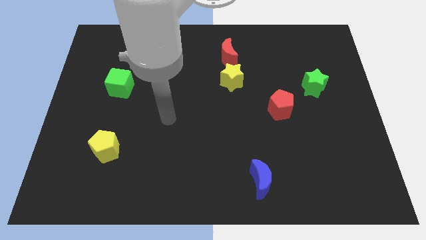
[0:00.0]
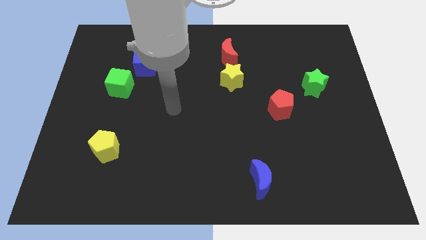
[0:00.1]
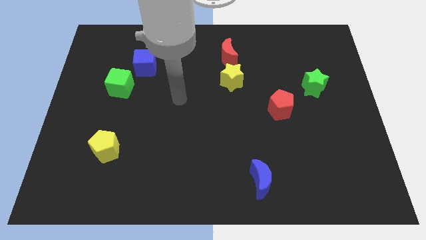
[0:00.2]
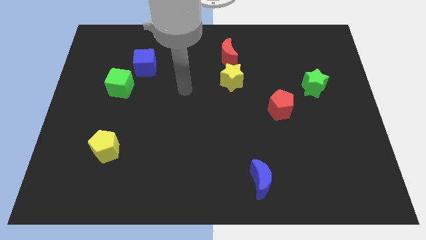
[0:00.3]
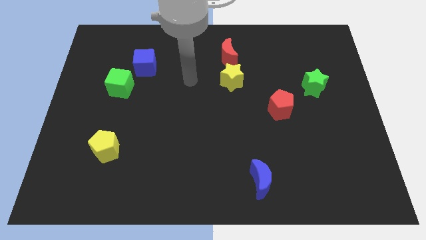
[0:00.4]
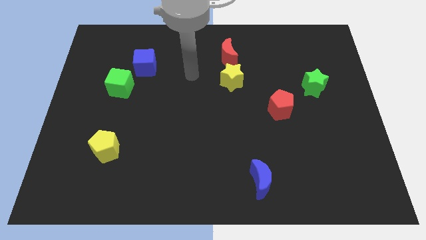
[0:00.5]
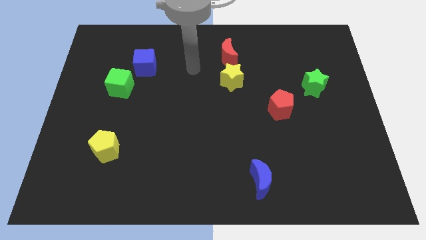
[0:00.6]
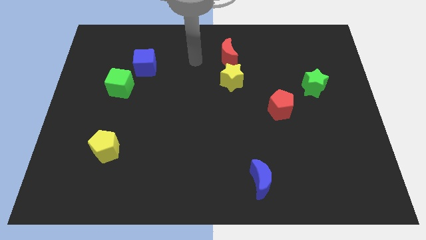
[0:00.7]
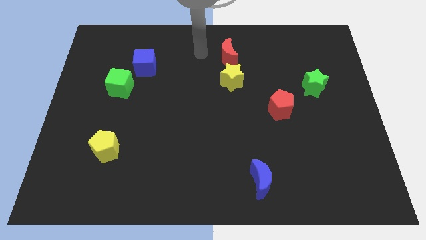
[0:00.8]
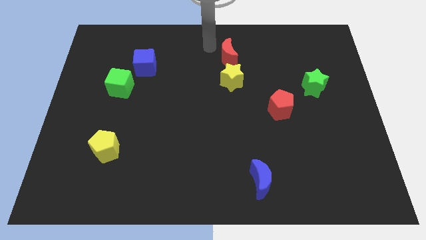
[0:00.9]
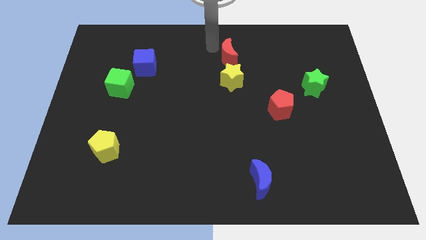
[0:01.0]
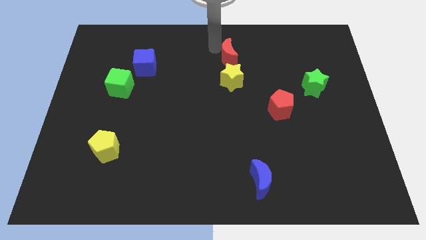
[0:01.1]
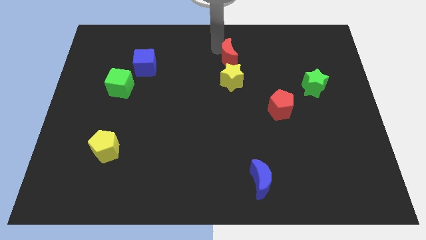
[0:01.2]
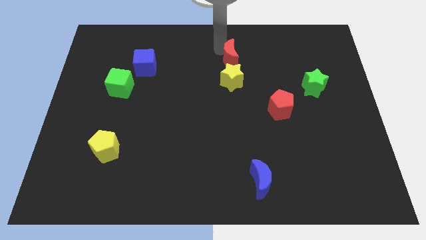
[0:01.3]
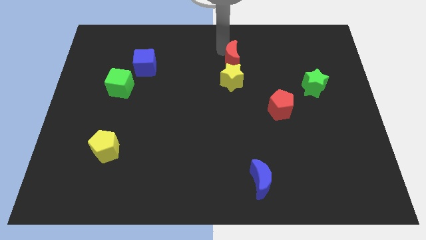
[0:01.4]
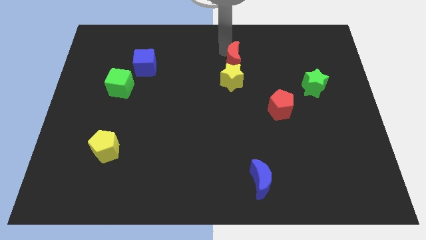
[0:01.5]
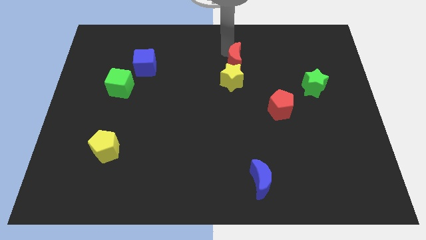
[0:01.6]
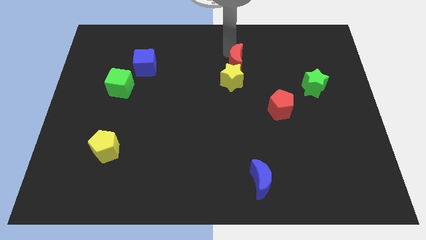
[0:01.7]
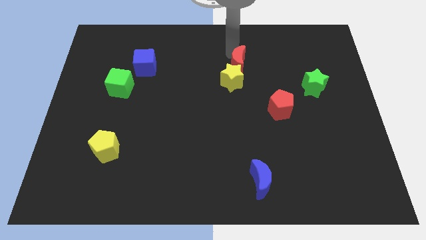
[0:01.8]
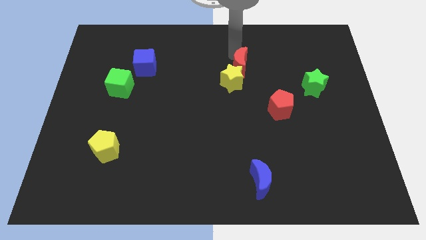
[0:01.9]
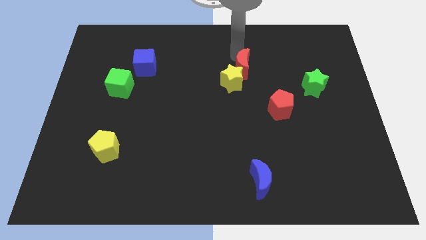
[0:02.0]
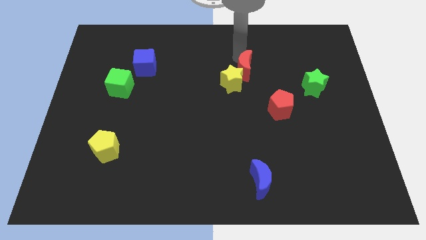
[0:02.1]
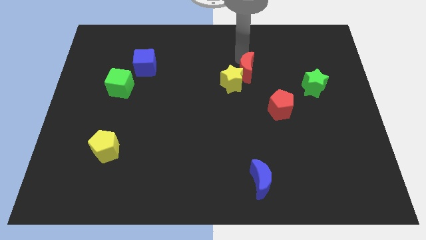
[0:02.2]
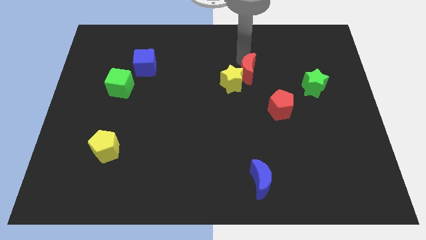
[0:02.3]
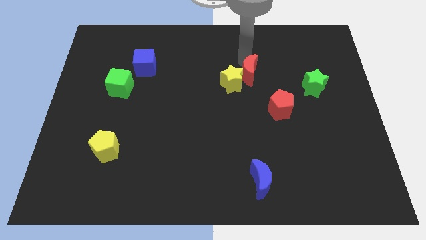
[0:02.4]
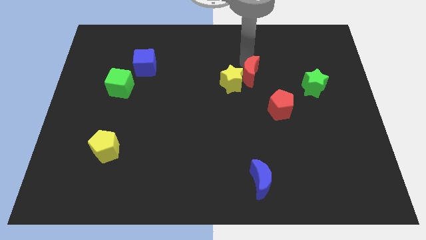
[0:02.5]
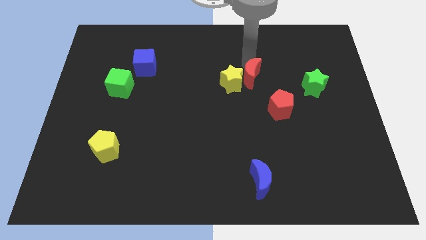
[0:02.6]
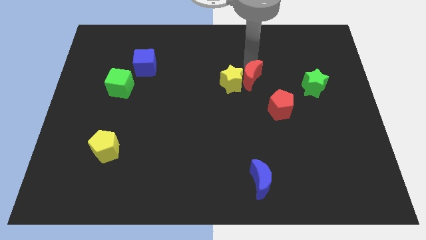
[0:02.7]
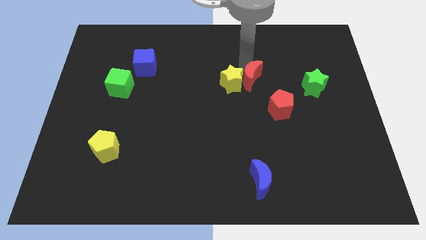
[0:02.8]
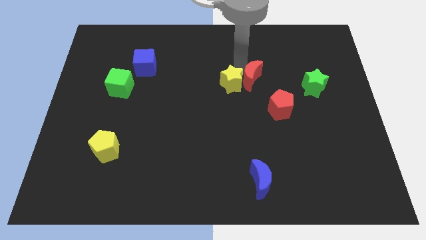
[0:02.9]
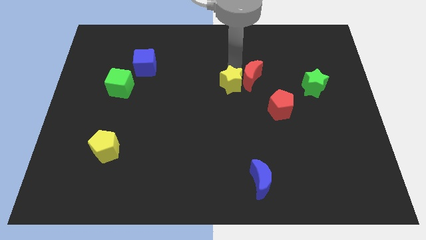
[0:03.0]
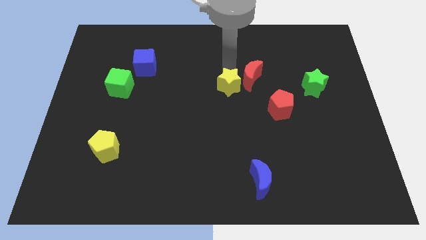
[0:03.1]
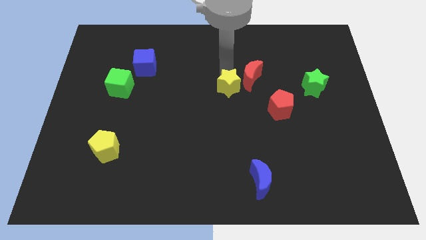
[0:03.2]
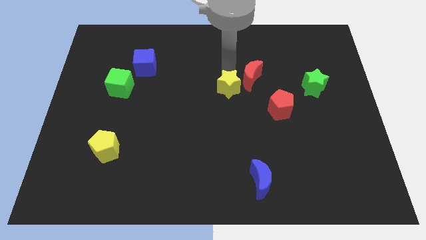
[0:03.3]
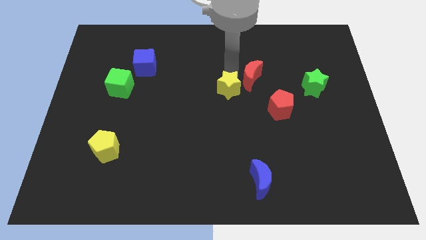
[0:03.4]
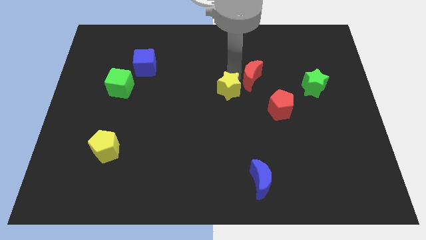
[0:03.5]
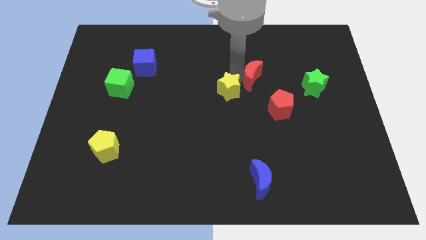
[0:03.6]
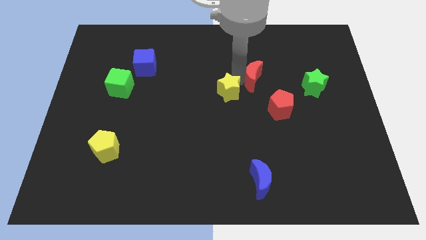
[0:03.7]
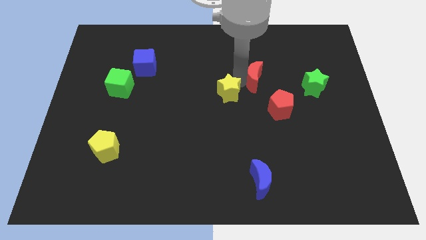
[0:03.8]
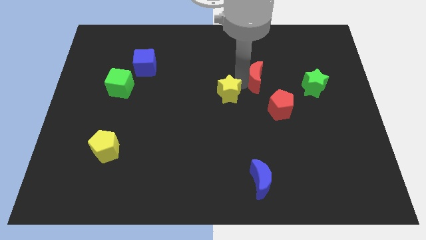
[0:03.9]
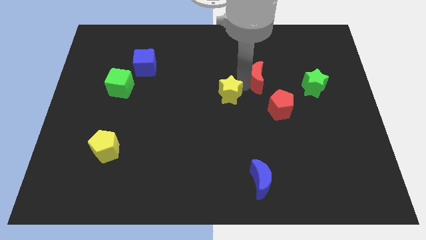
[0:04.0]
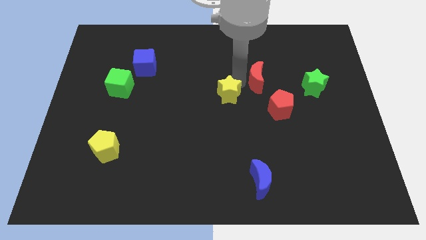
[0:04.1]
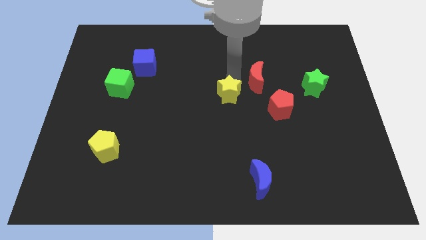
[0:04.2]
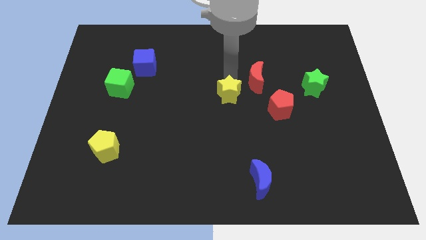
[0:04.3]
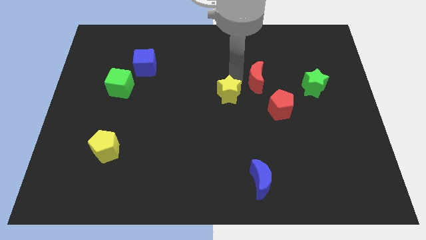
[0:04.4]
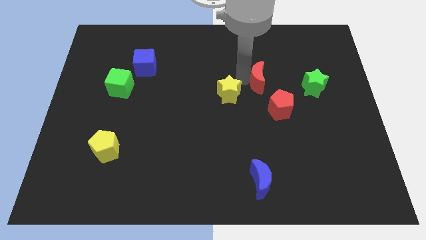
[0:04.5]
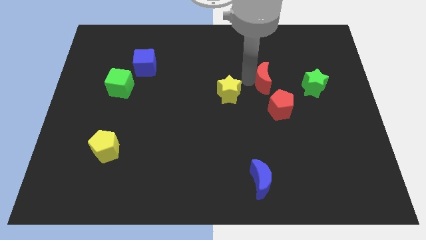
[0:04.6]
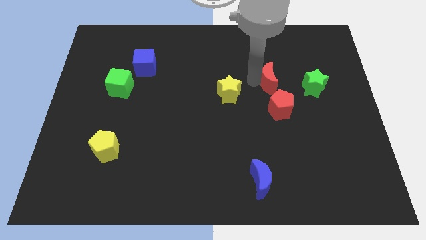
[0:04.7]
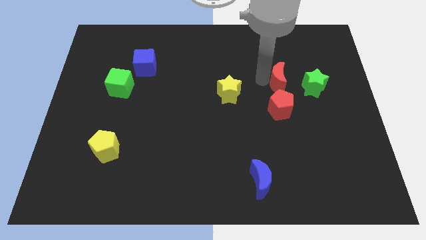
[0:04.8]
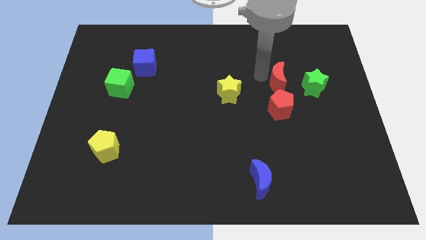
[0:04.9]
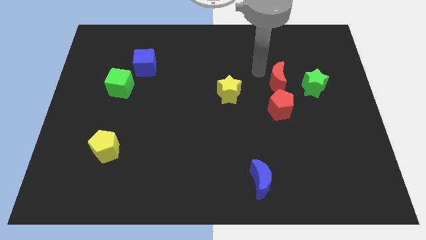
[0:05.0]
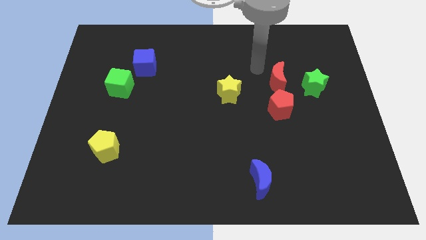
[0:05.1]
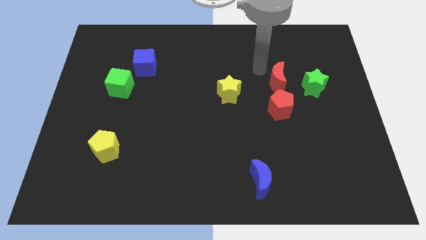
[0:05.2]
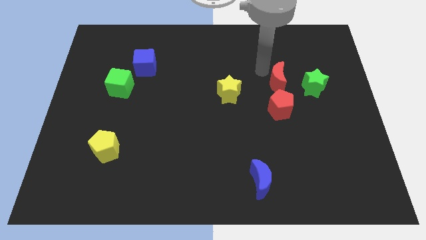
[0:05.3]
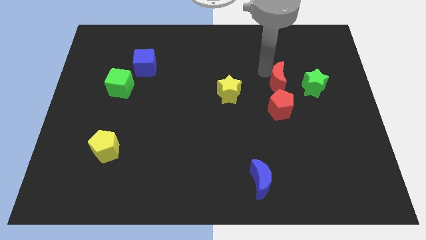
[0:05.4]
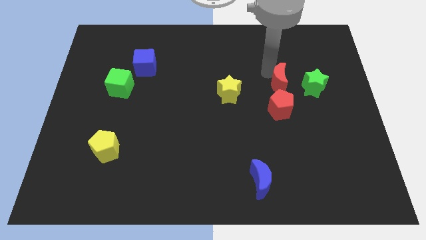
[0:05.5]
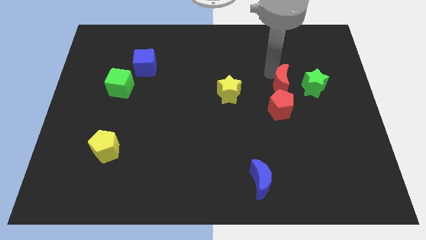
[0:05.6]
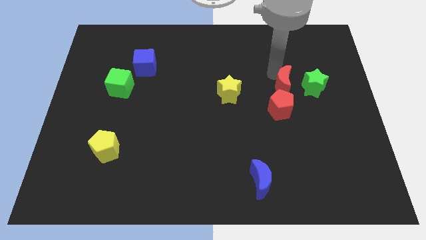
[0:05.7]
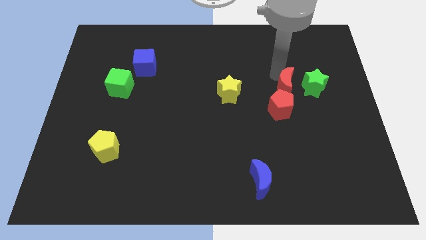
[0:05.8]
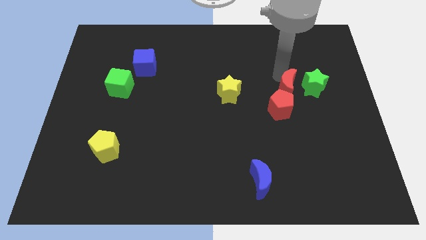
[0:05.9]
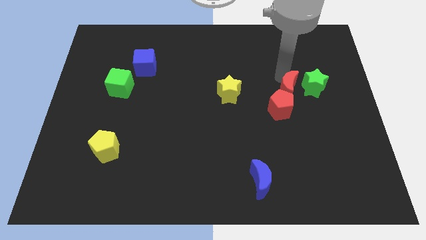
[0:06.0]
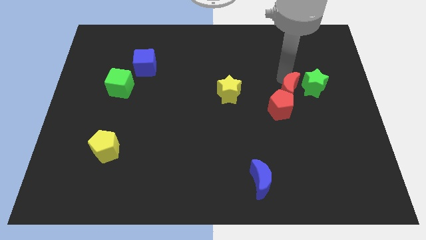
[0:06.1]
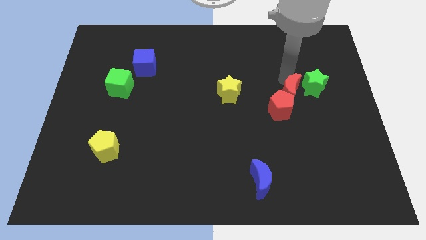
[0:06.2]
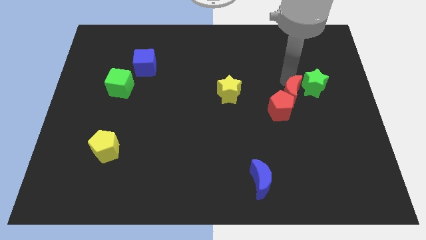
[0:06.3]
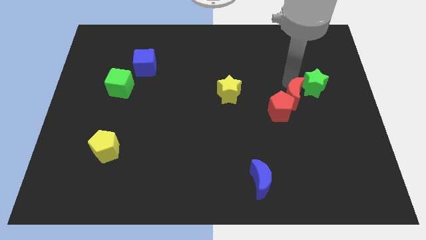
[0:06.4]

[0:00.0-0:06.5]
move the red moon down and then to the right

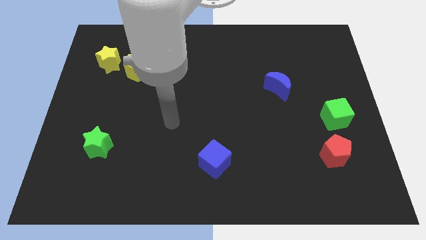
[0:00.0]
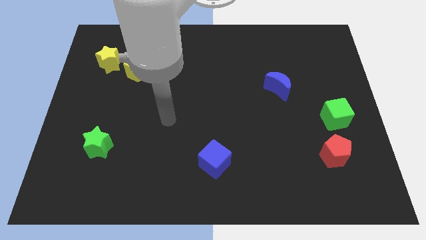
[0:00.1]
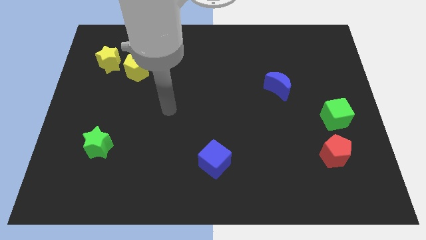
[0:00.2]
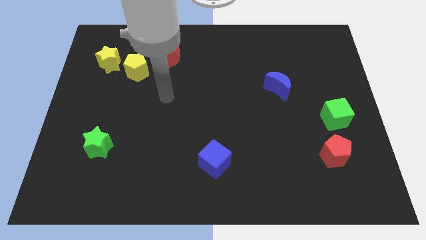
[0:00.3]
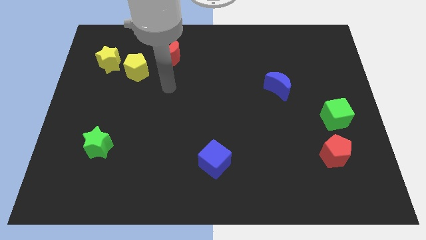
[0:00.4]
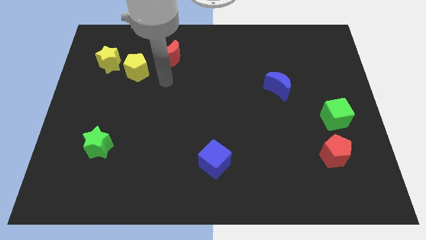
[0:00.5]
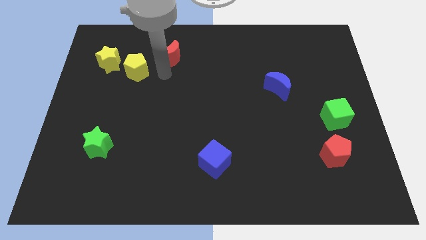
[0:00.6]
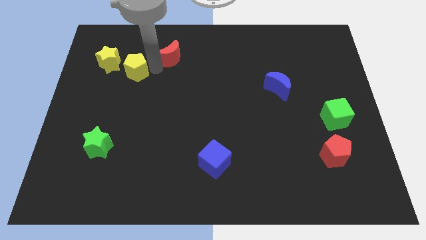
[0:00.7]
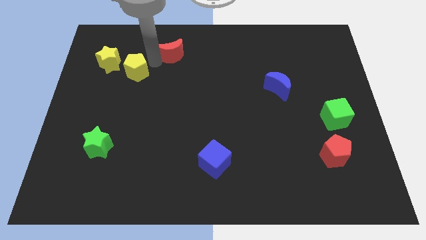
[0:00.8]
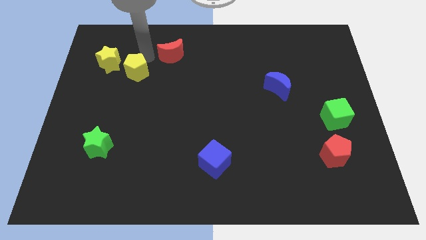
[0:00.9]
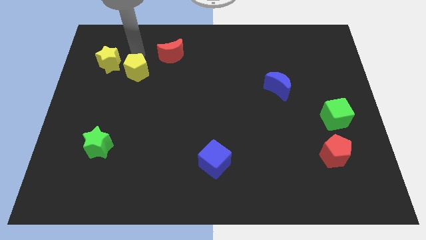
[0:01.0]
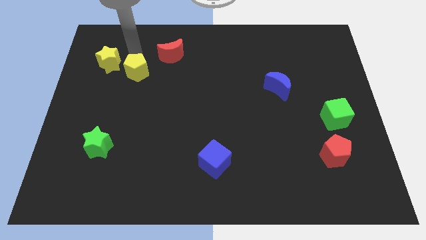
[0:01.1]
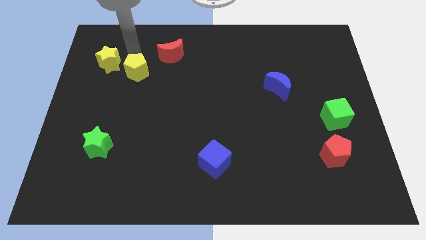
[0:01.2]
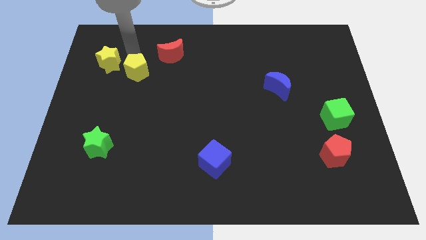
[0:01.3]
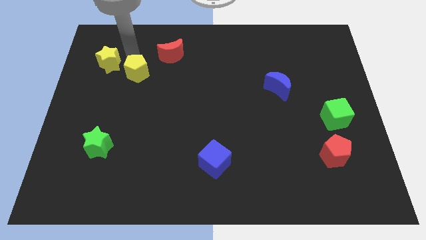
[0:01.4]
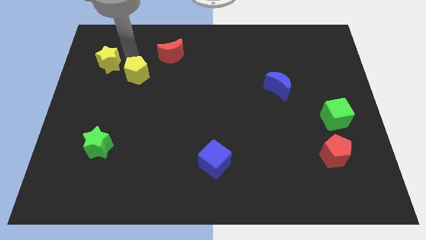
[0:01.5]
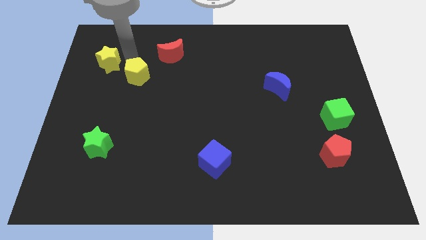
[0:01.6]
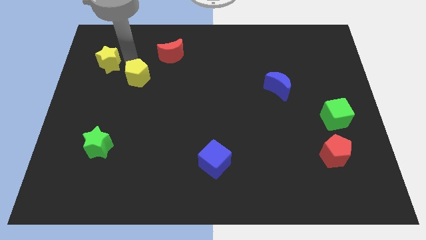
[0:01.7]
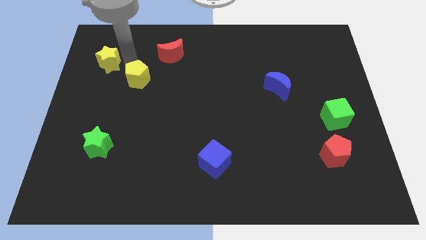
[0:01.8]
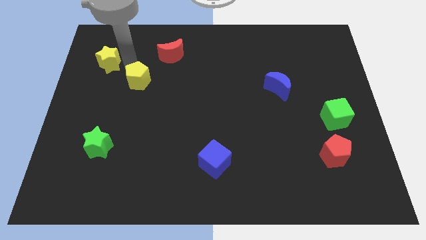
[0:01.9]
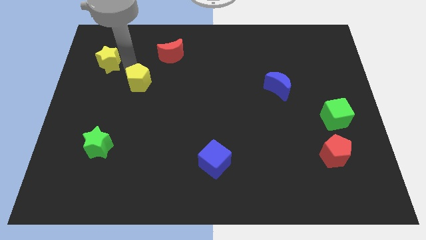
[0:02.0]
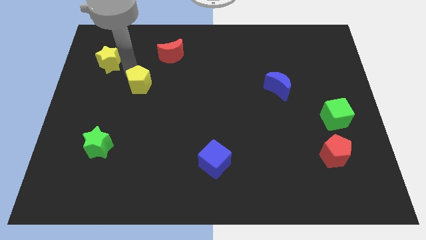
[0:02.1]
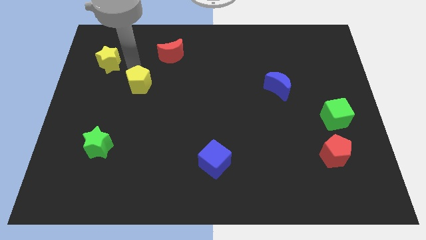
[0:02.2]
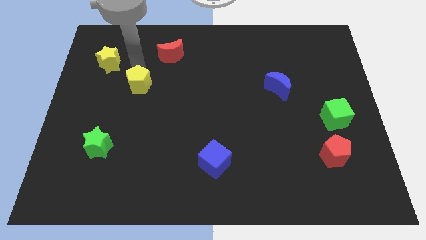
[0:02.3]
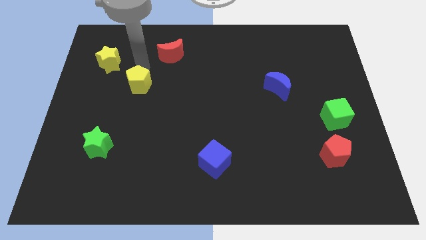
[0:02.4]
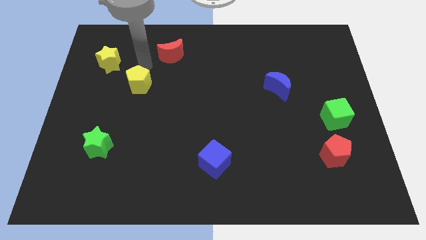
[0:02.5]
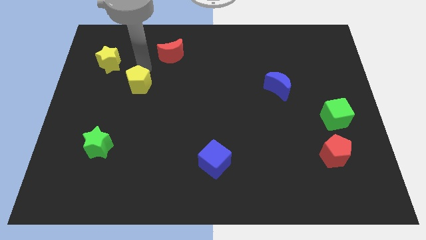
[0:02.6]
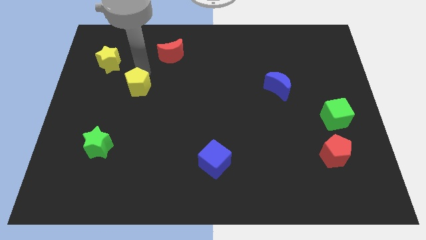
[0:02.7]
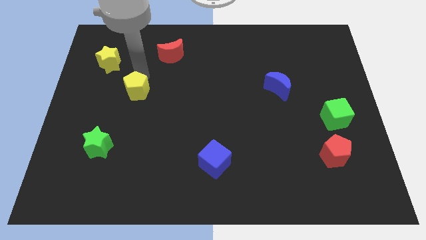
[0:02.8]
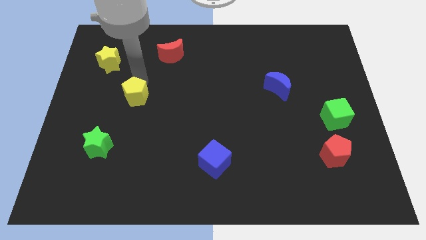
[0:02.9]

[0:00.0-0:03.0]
slightly move the yellow pentagon downwards
